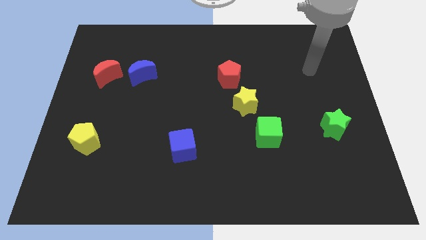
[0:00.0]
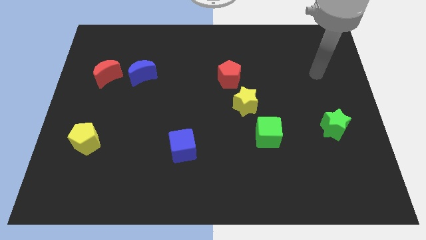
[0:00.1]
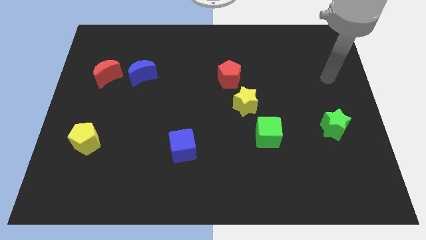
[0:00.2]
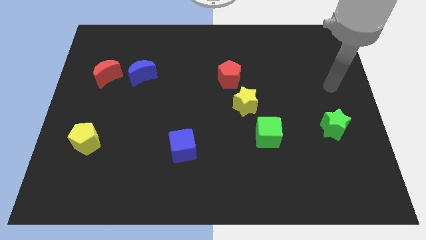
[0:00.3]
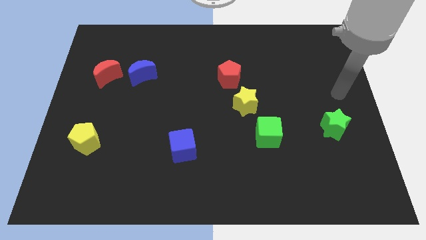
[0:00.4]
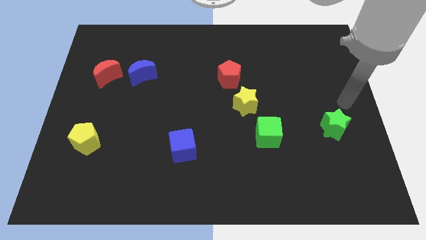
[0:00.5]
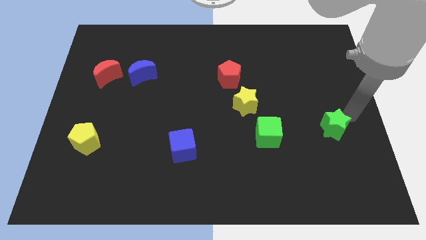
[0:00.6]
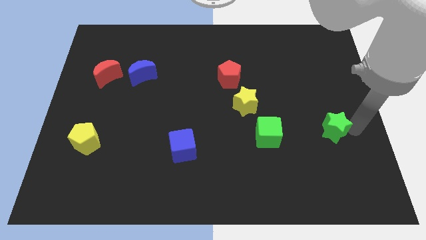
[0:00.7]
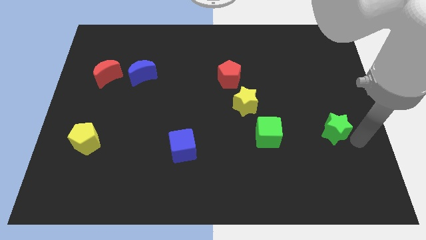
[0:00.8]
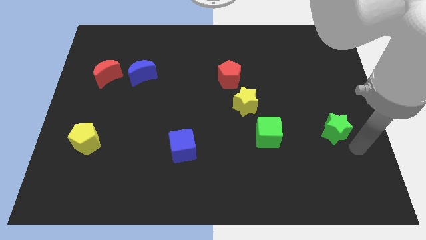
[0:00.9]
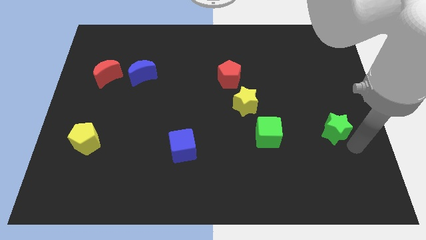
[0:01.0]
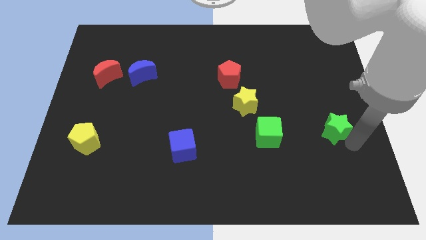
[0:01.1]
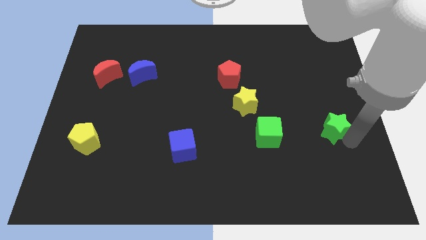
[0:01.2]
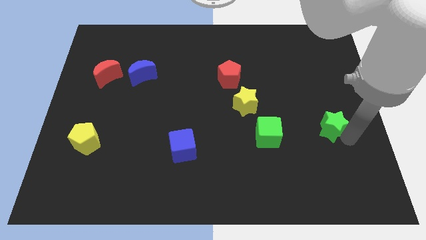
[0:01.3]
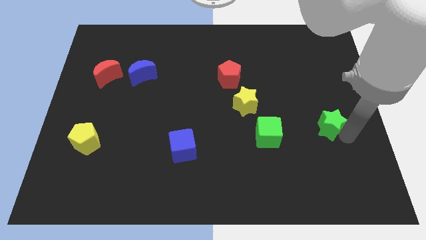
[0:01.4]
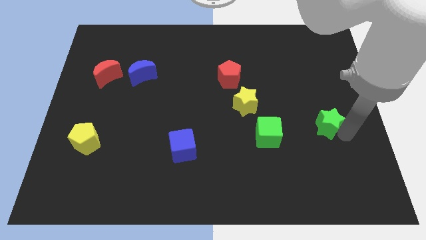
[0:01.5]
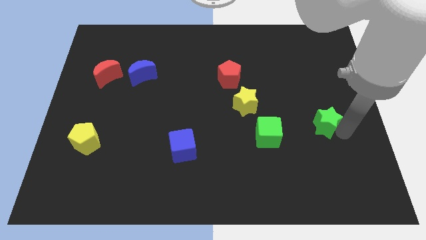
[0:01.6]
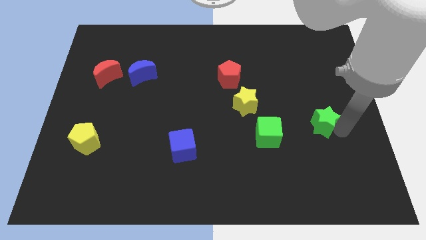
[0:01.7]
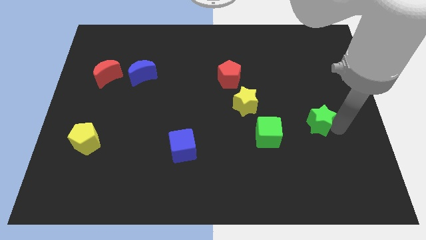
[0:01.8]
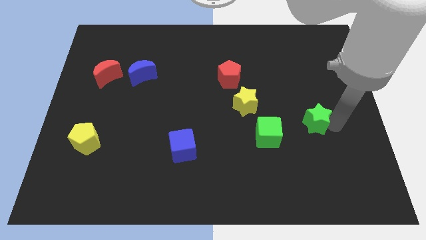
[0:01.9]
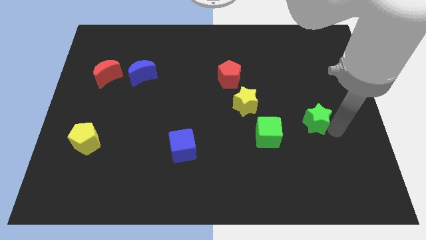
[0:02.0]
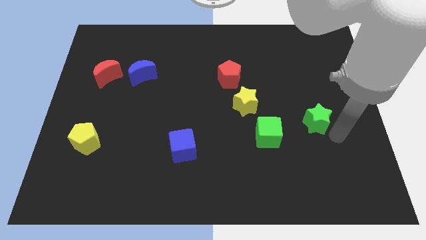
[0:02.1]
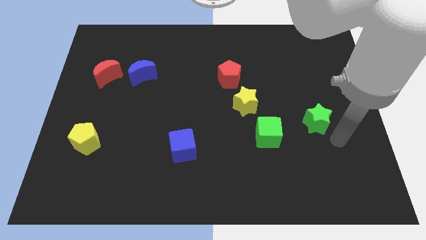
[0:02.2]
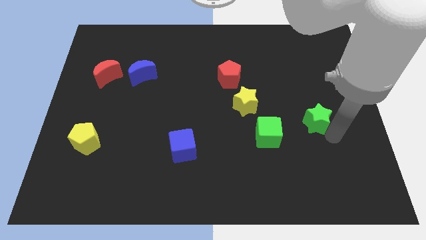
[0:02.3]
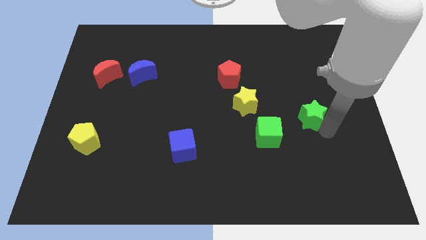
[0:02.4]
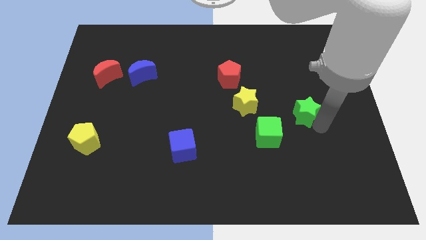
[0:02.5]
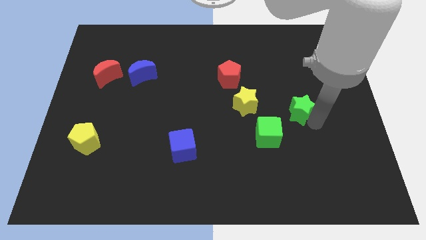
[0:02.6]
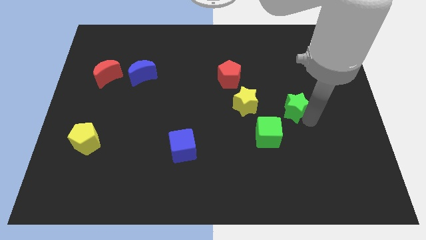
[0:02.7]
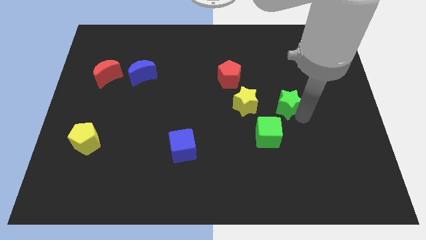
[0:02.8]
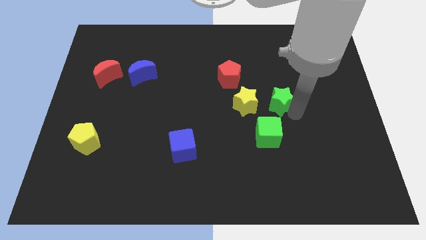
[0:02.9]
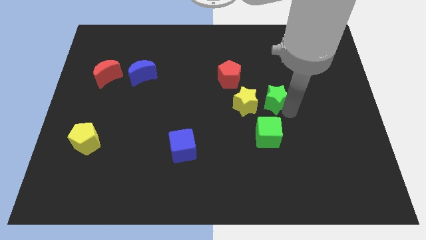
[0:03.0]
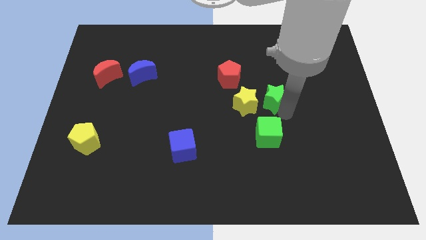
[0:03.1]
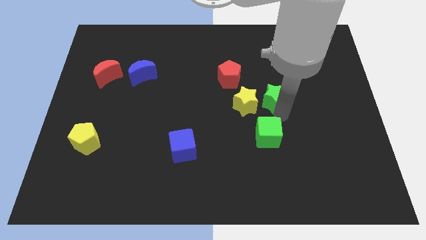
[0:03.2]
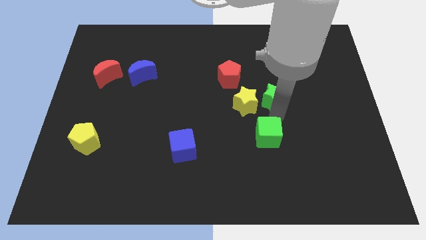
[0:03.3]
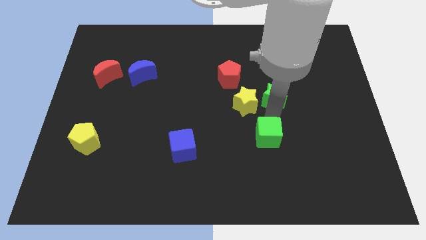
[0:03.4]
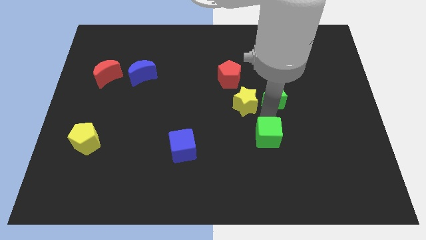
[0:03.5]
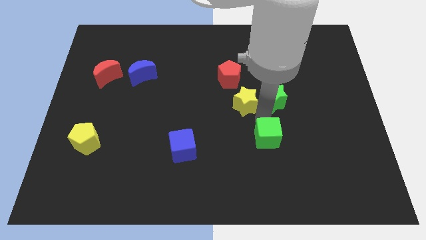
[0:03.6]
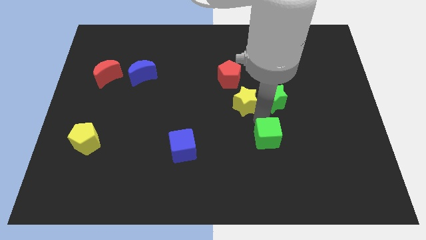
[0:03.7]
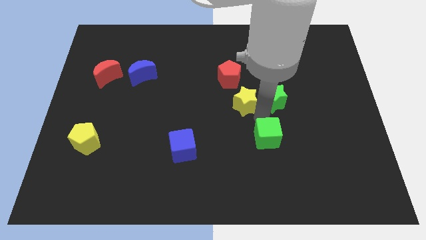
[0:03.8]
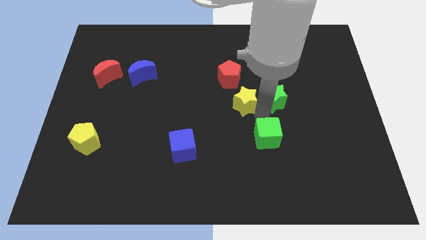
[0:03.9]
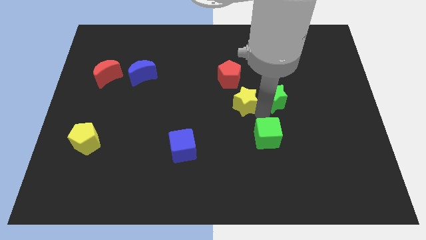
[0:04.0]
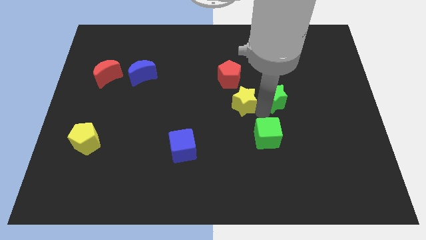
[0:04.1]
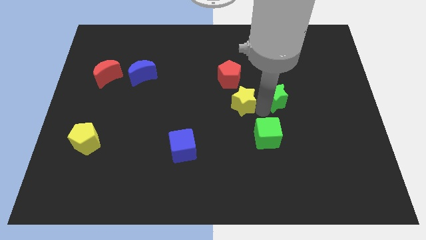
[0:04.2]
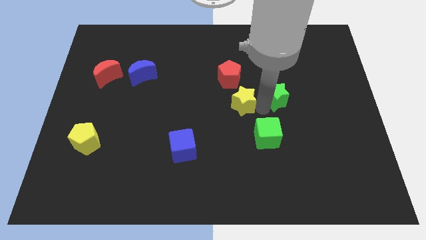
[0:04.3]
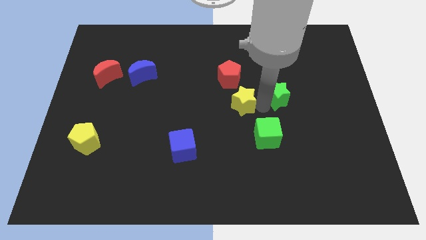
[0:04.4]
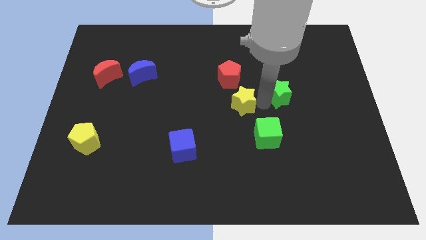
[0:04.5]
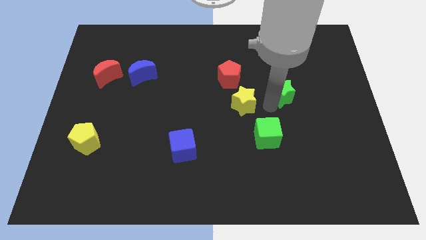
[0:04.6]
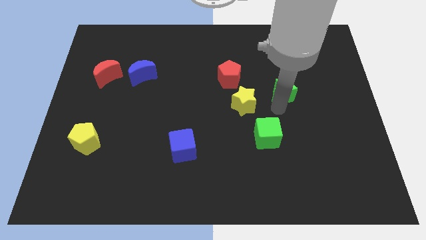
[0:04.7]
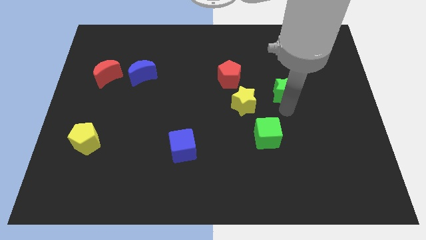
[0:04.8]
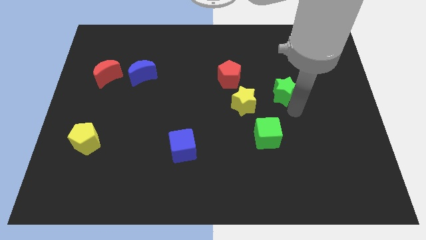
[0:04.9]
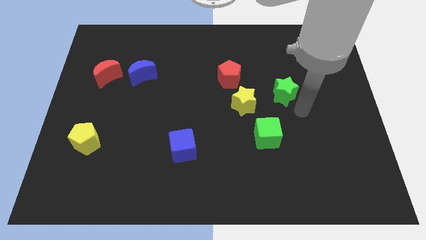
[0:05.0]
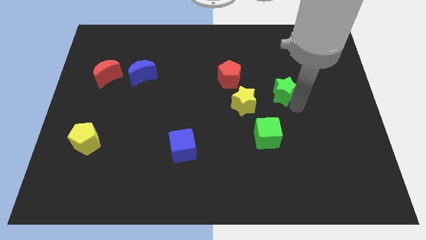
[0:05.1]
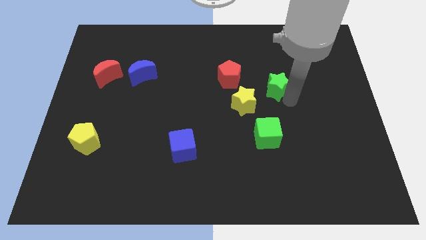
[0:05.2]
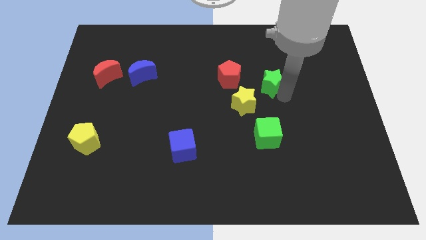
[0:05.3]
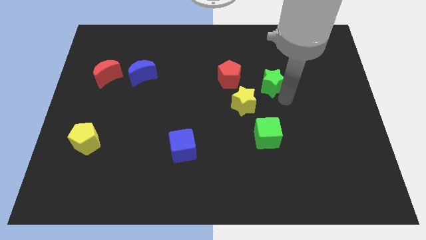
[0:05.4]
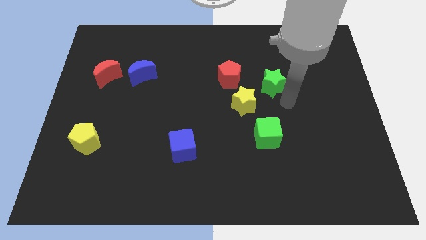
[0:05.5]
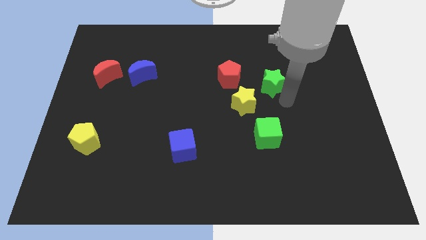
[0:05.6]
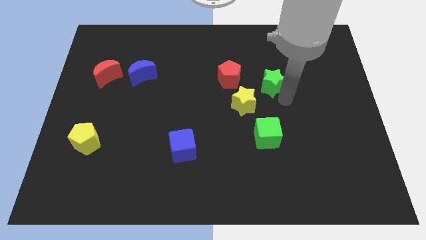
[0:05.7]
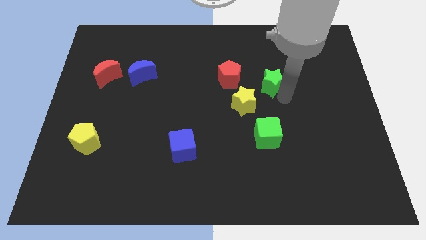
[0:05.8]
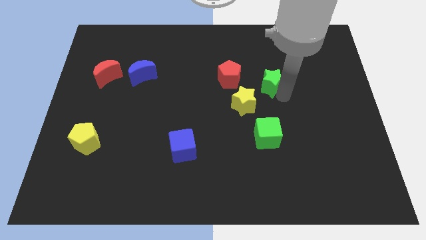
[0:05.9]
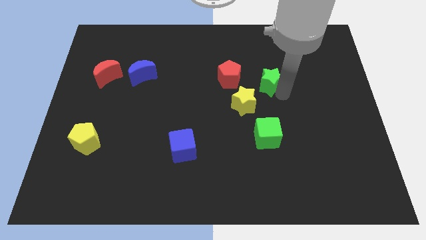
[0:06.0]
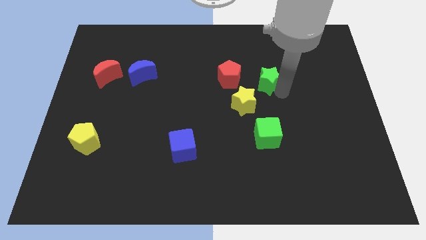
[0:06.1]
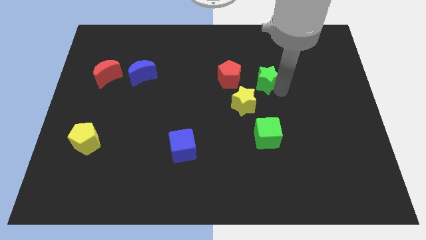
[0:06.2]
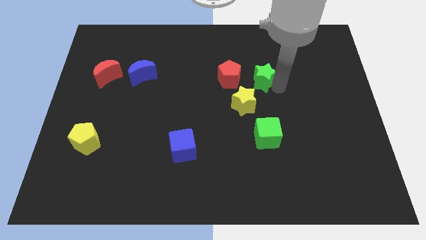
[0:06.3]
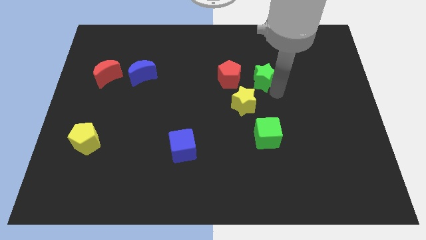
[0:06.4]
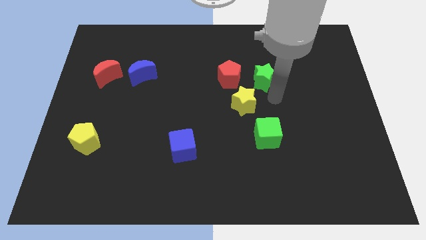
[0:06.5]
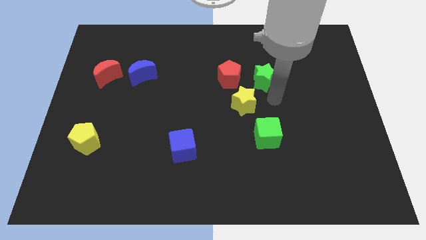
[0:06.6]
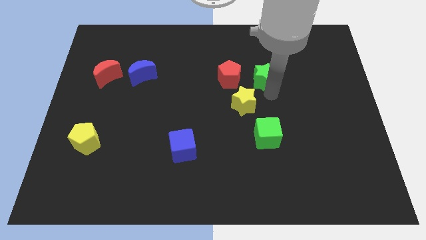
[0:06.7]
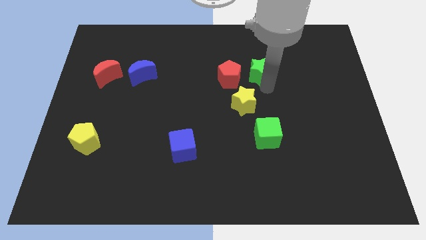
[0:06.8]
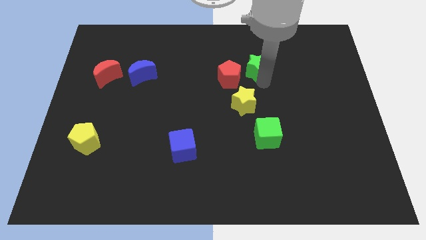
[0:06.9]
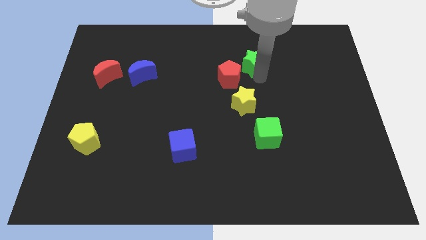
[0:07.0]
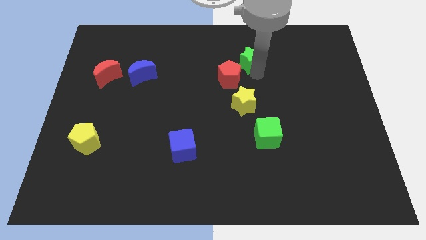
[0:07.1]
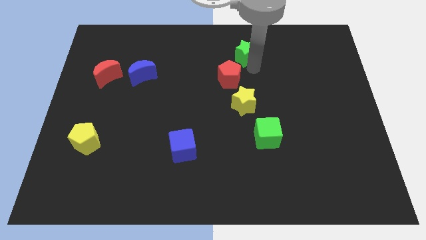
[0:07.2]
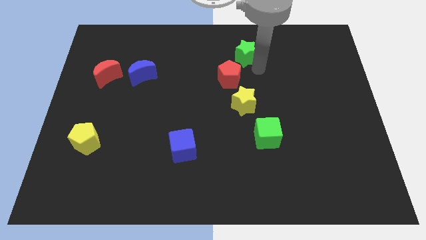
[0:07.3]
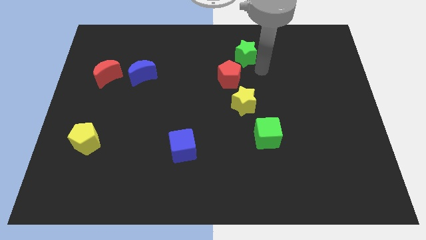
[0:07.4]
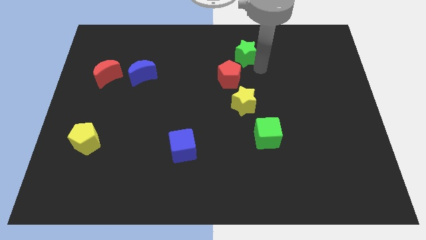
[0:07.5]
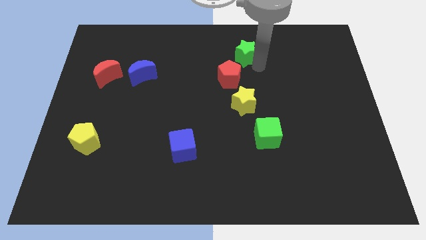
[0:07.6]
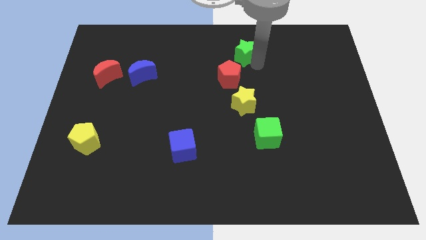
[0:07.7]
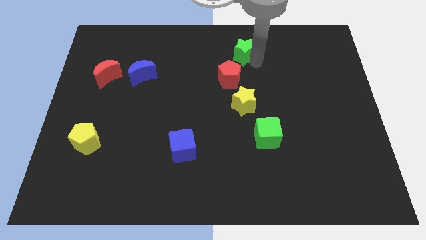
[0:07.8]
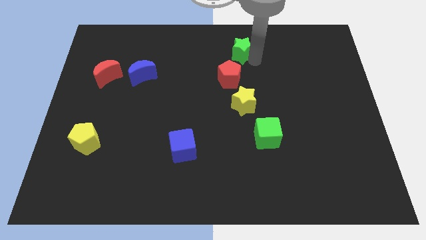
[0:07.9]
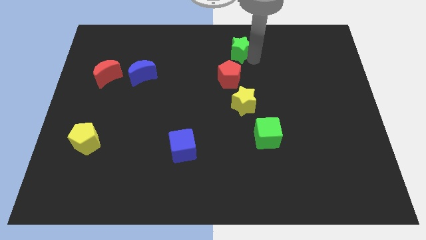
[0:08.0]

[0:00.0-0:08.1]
slide the green star to the top
